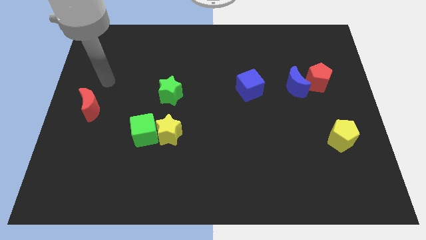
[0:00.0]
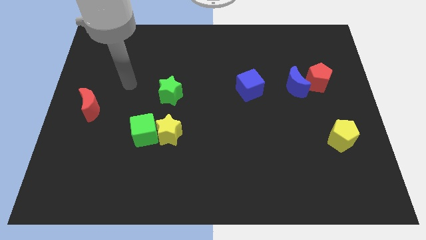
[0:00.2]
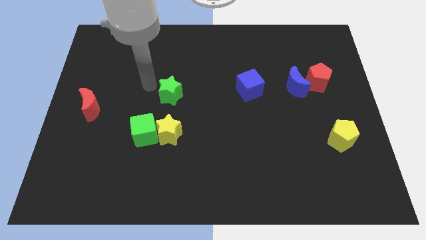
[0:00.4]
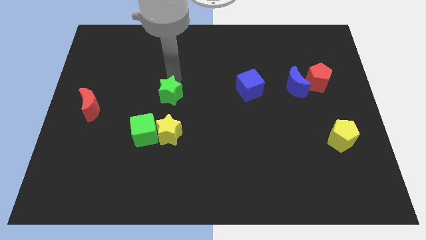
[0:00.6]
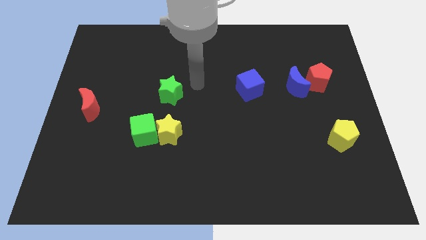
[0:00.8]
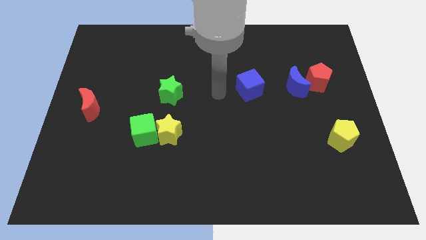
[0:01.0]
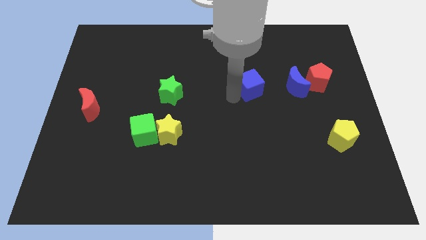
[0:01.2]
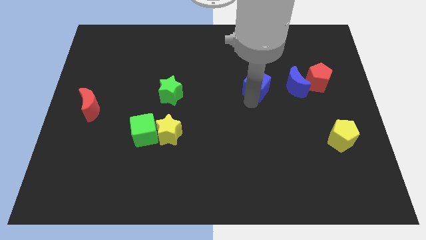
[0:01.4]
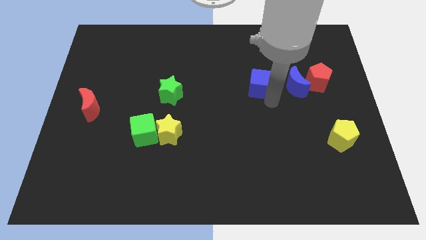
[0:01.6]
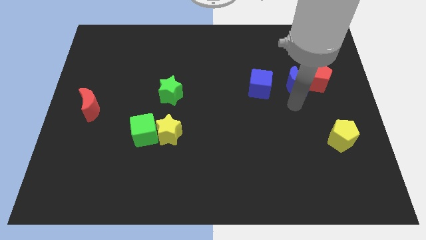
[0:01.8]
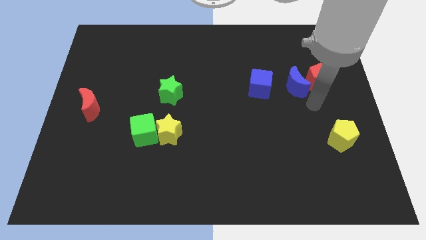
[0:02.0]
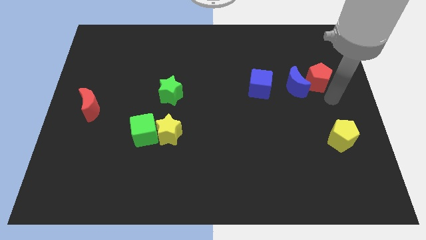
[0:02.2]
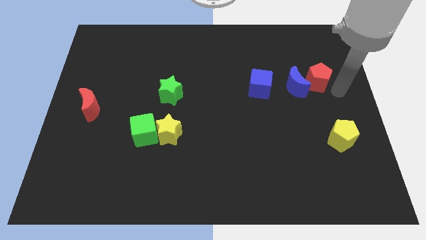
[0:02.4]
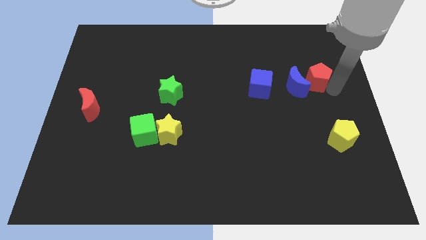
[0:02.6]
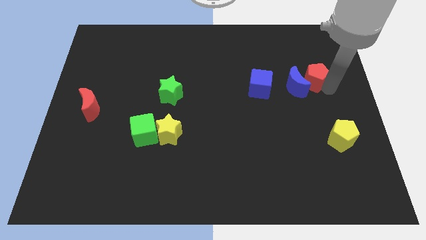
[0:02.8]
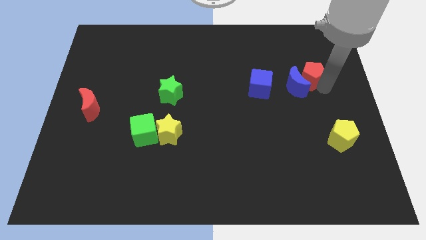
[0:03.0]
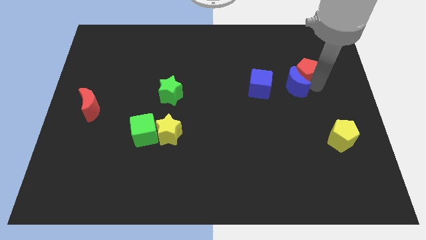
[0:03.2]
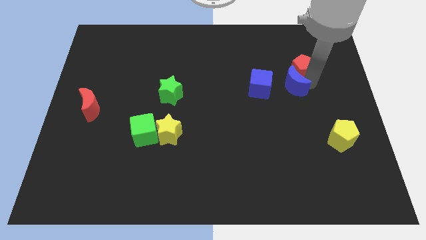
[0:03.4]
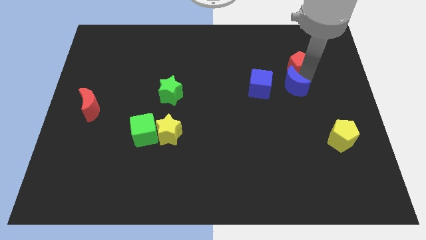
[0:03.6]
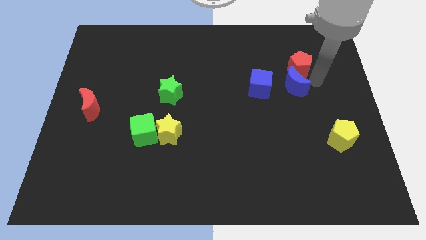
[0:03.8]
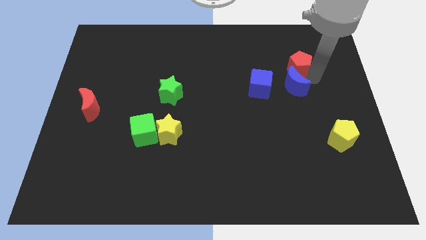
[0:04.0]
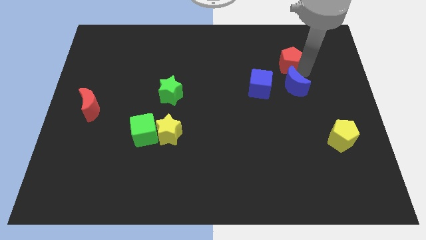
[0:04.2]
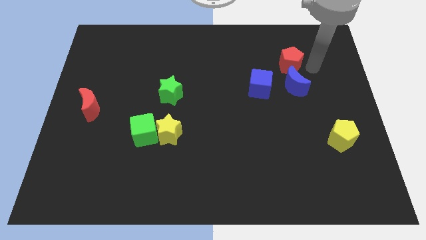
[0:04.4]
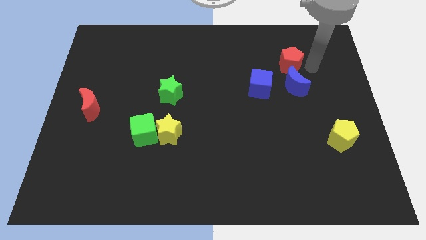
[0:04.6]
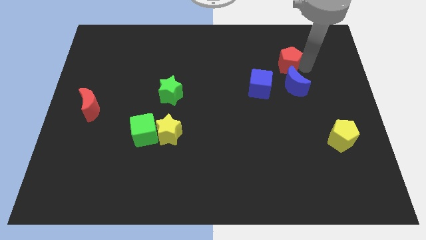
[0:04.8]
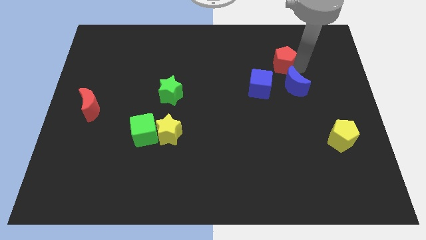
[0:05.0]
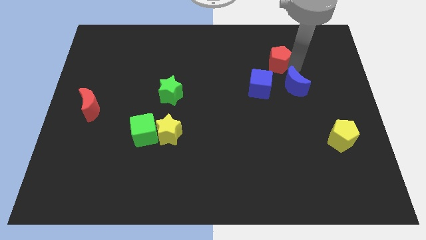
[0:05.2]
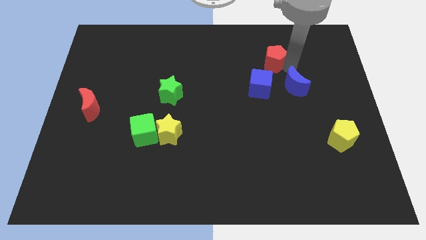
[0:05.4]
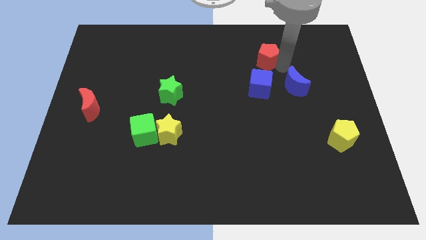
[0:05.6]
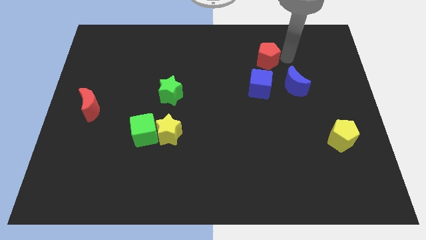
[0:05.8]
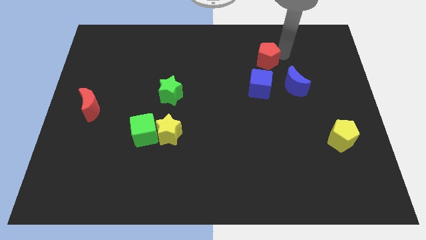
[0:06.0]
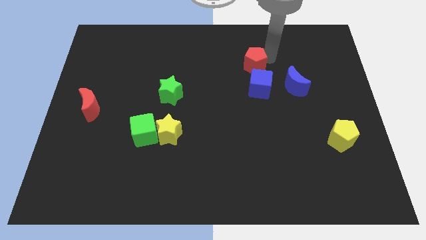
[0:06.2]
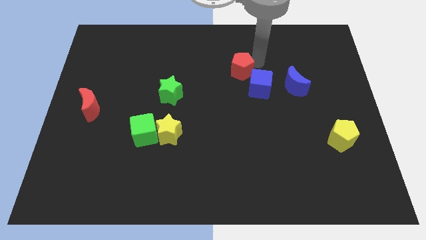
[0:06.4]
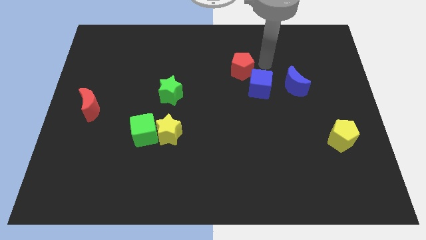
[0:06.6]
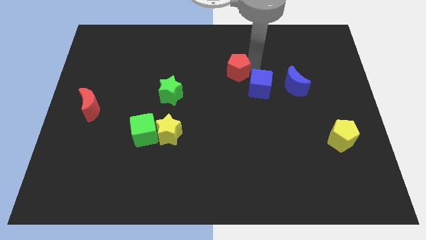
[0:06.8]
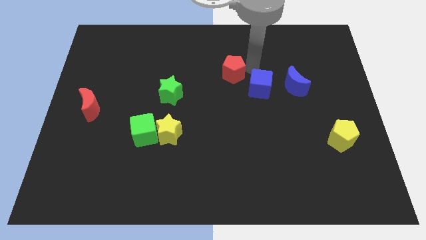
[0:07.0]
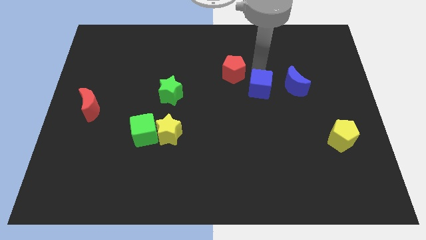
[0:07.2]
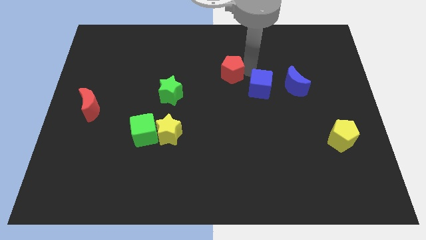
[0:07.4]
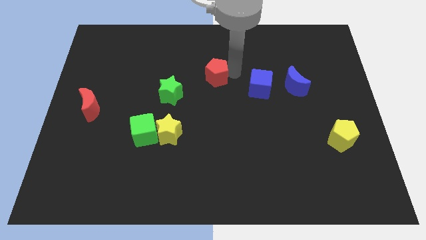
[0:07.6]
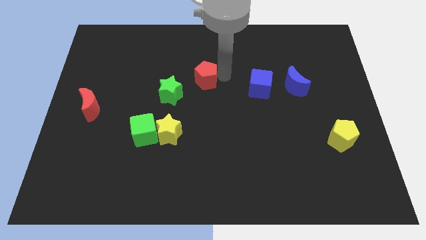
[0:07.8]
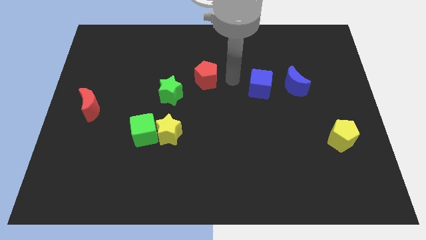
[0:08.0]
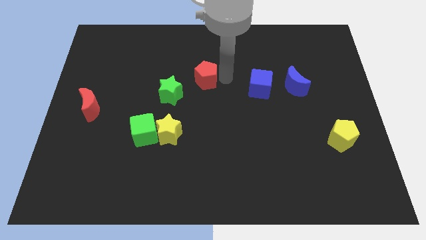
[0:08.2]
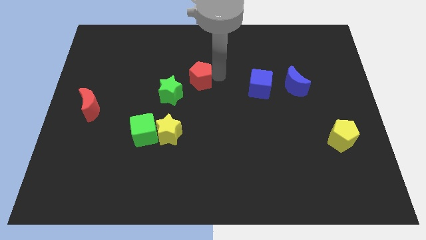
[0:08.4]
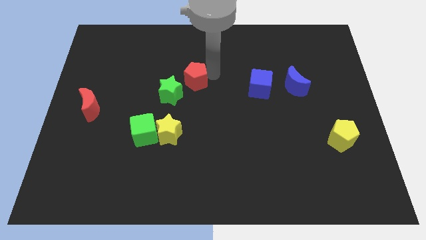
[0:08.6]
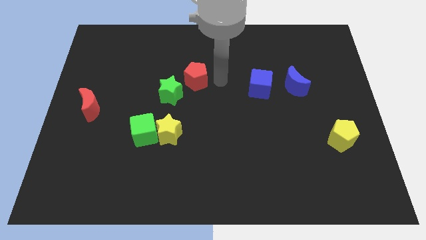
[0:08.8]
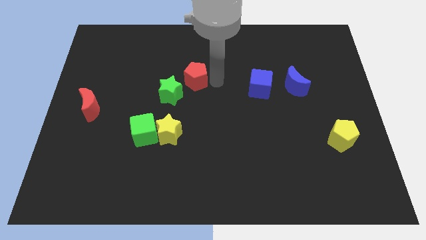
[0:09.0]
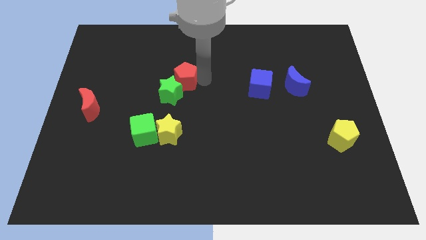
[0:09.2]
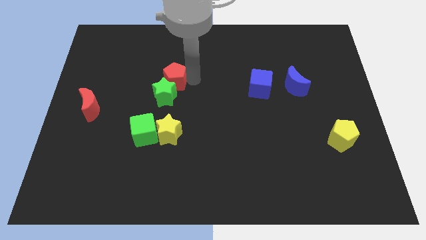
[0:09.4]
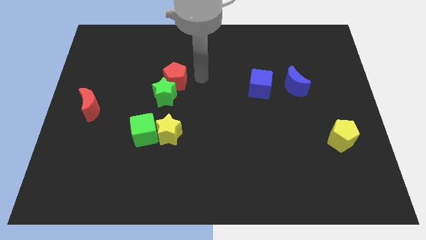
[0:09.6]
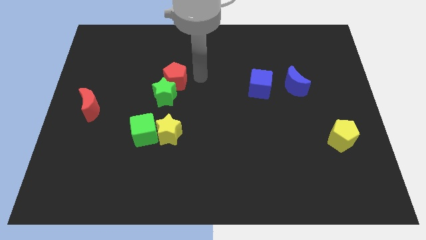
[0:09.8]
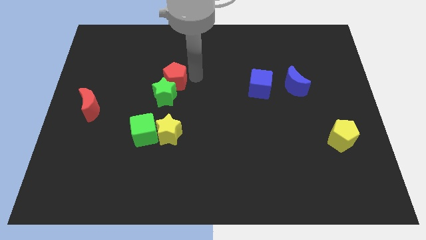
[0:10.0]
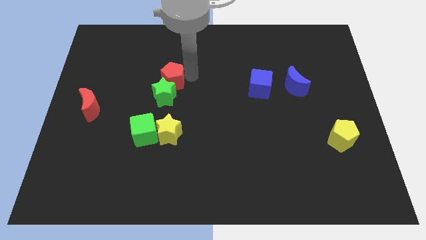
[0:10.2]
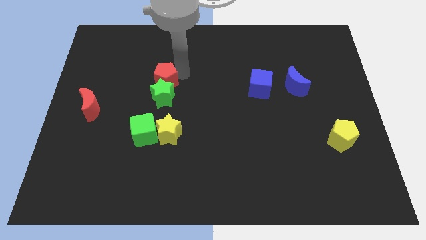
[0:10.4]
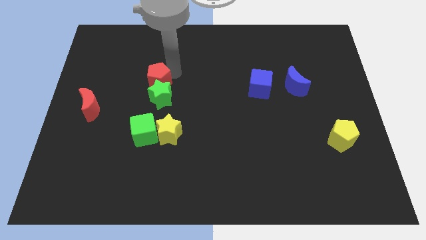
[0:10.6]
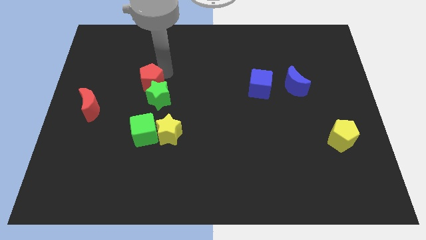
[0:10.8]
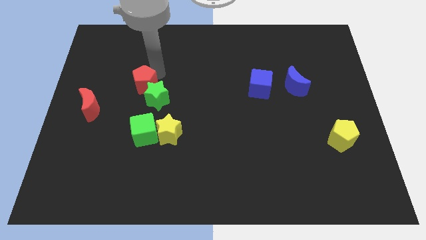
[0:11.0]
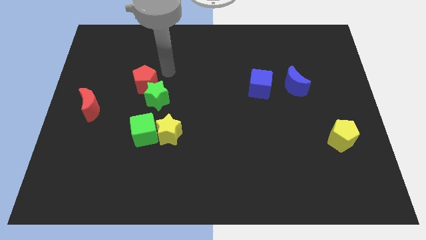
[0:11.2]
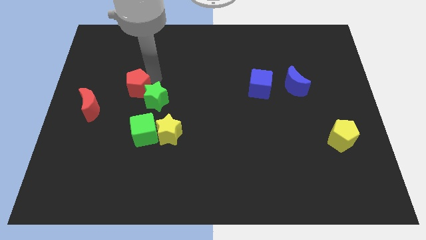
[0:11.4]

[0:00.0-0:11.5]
put the red pentagon left of the green star

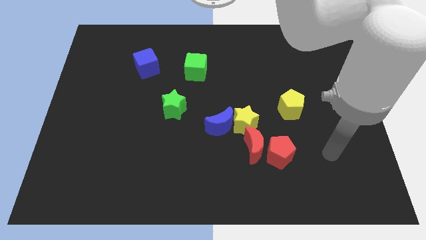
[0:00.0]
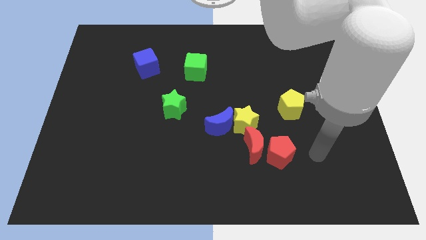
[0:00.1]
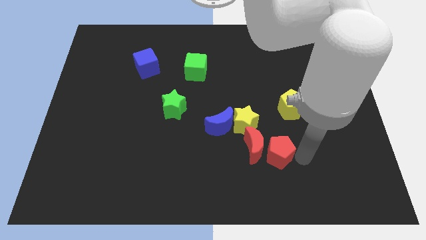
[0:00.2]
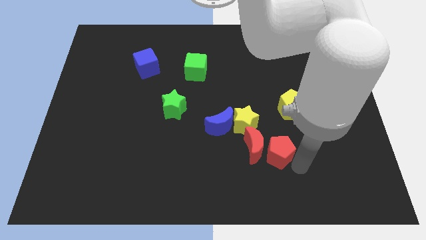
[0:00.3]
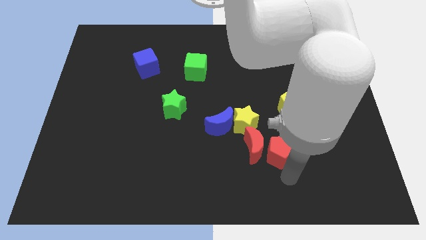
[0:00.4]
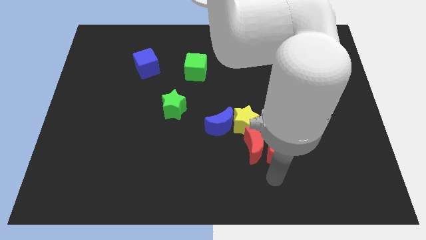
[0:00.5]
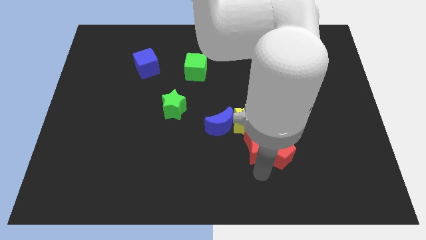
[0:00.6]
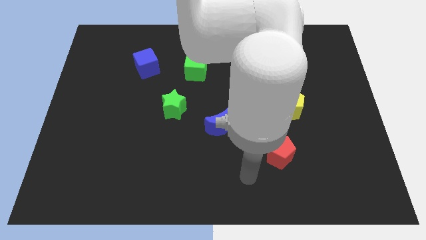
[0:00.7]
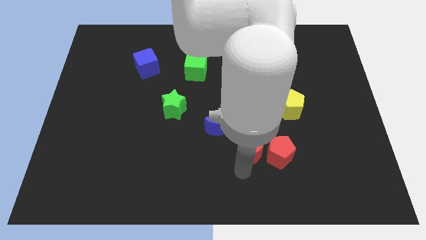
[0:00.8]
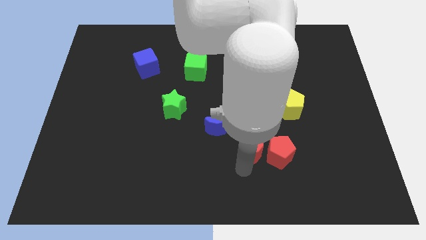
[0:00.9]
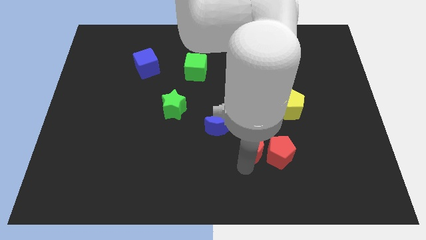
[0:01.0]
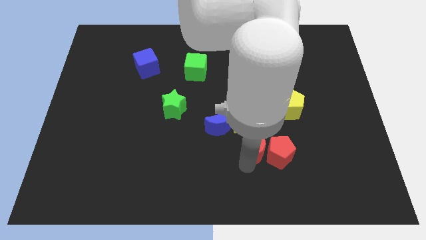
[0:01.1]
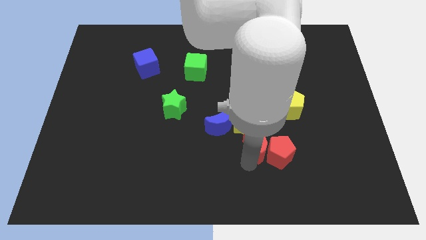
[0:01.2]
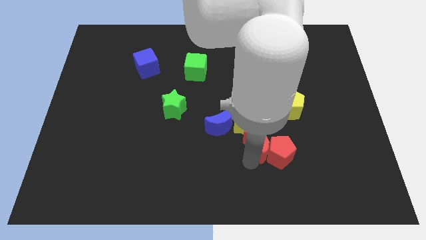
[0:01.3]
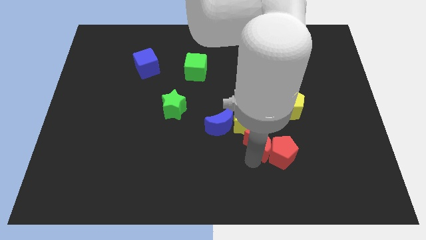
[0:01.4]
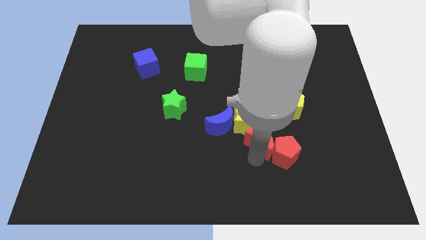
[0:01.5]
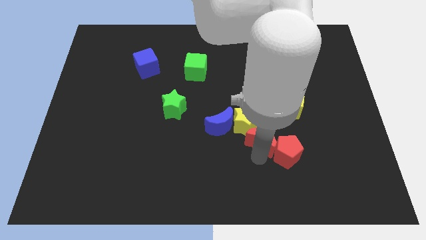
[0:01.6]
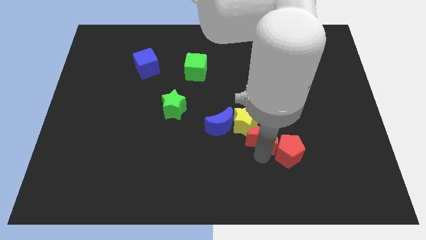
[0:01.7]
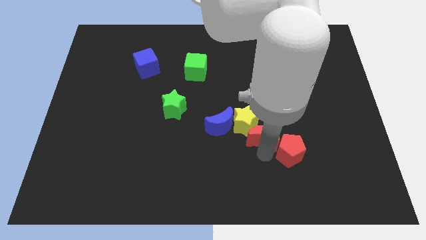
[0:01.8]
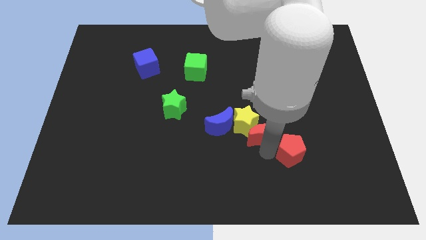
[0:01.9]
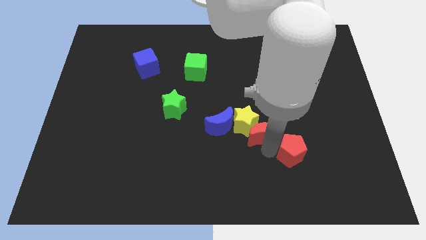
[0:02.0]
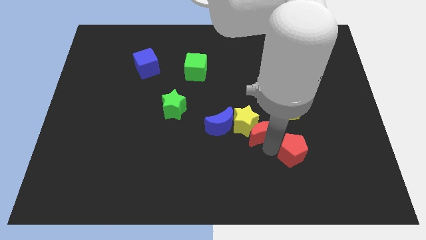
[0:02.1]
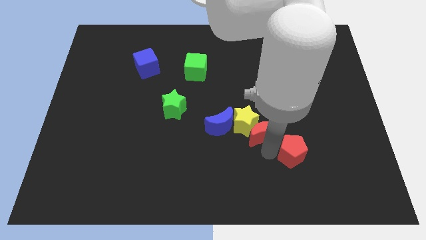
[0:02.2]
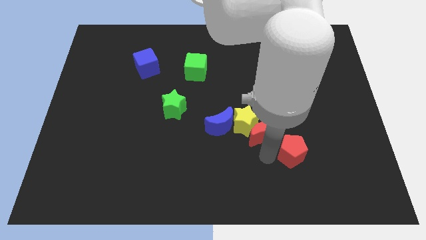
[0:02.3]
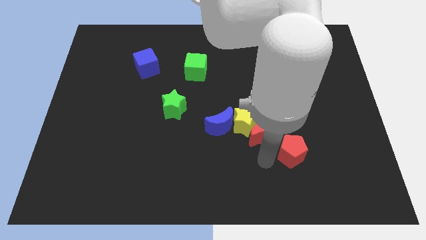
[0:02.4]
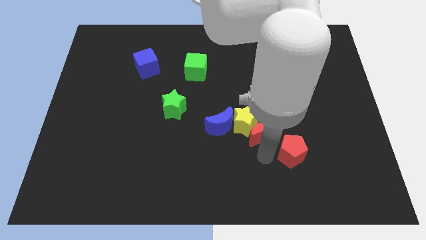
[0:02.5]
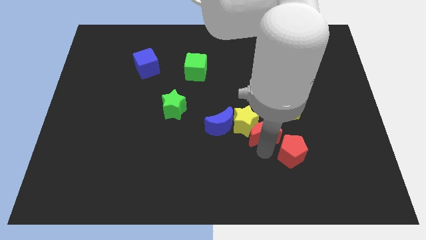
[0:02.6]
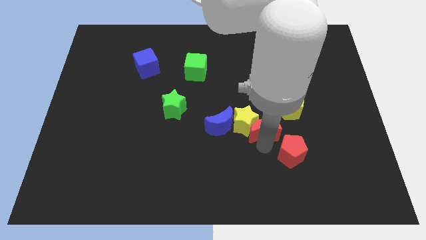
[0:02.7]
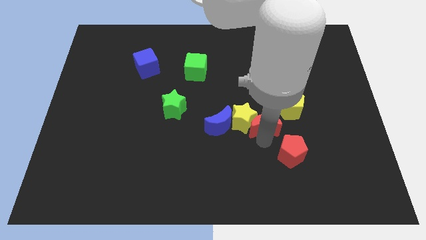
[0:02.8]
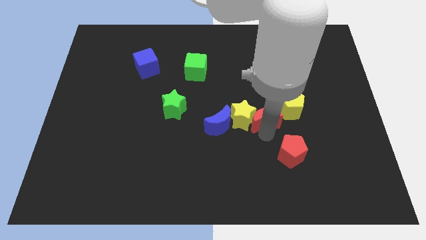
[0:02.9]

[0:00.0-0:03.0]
move the red moon just left of the yellow pentagon
